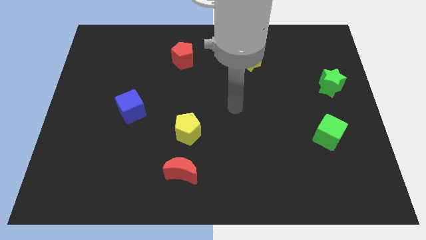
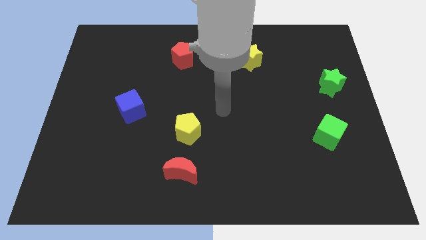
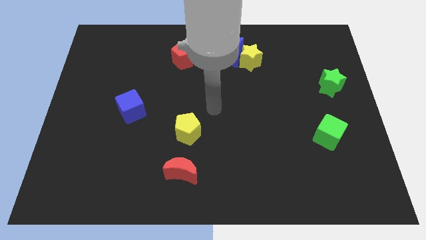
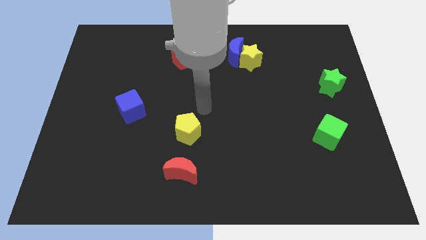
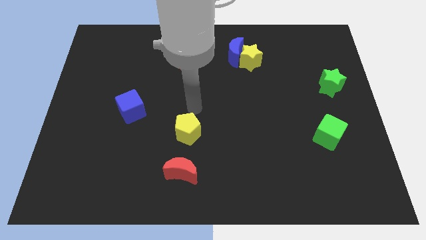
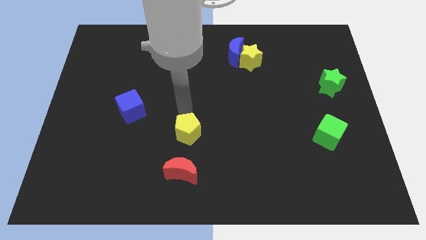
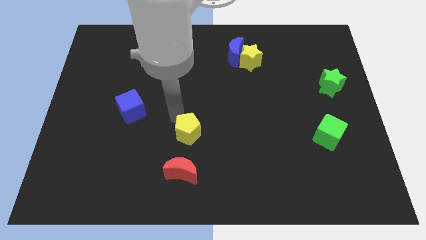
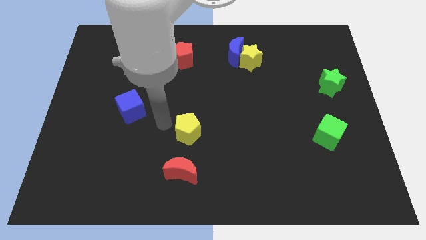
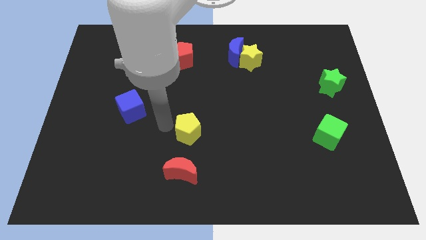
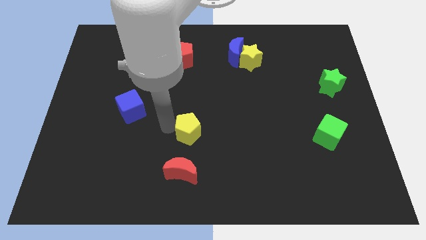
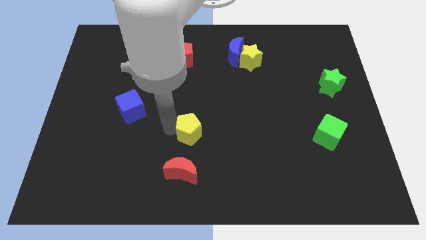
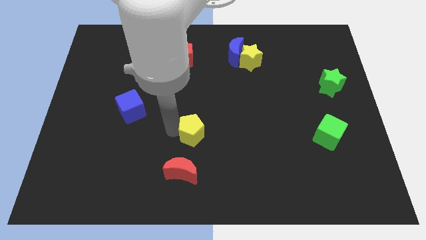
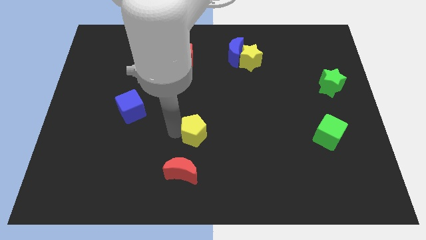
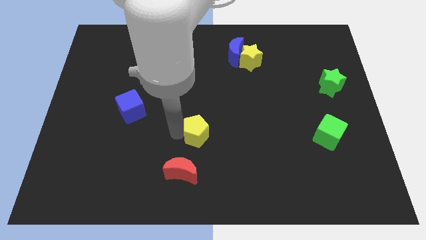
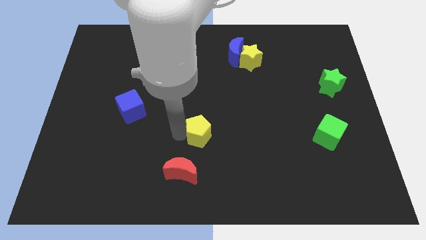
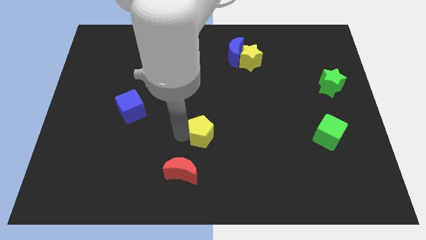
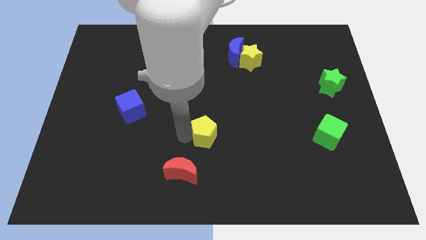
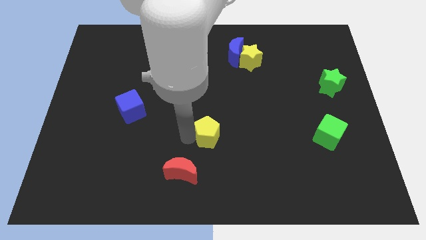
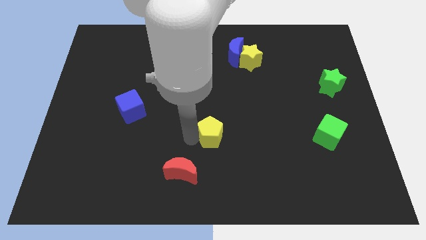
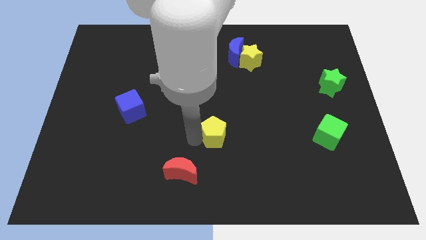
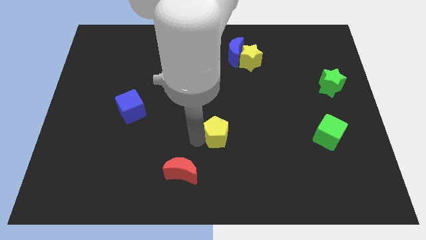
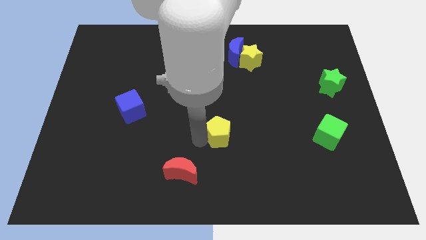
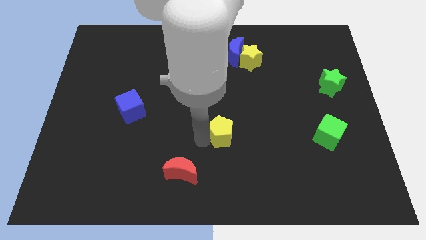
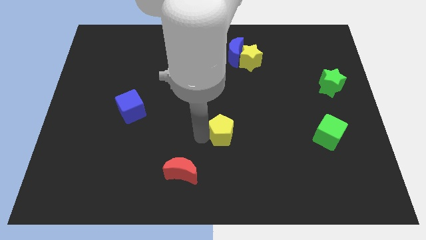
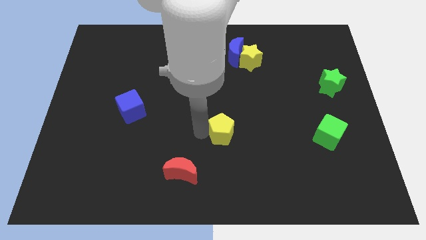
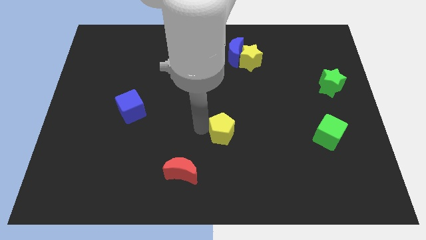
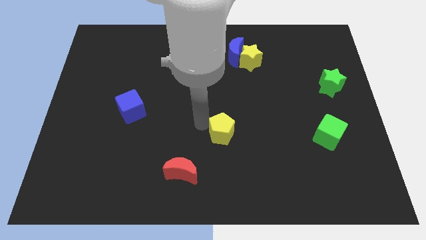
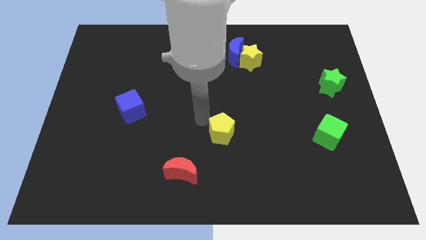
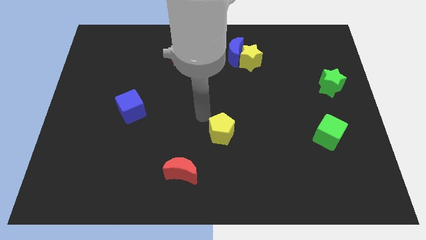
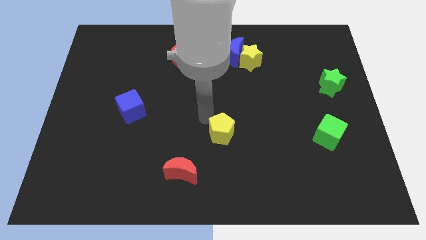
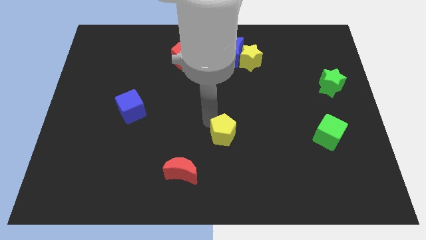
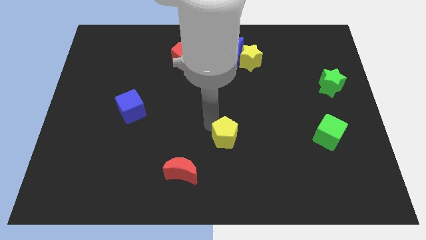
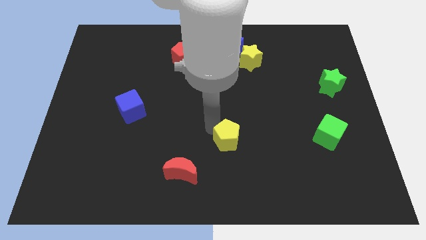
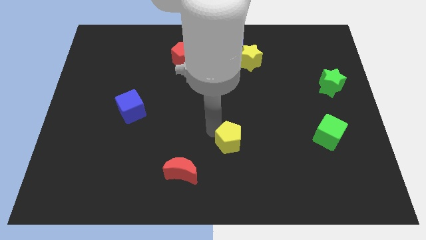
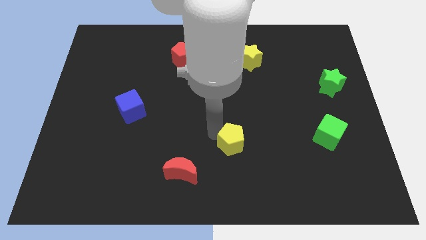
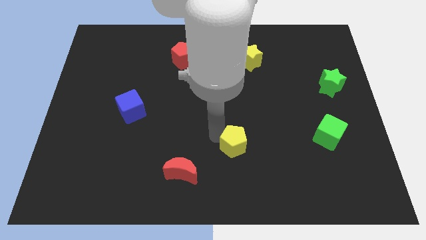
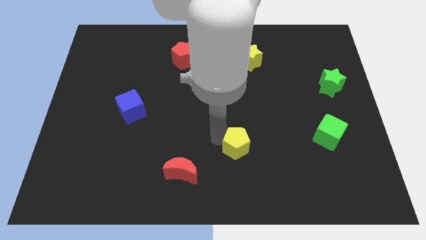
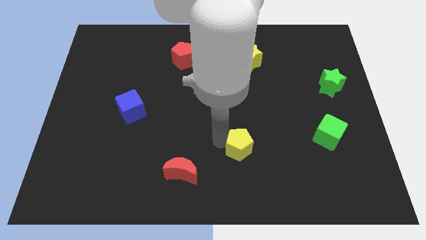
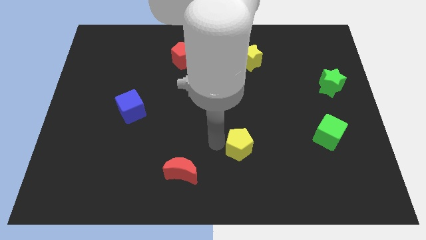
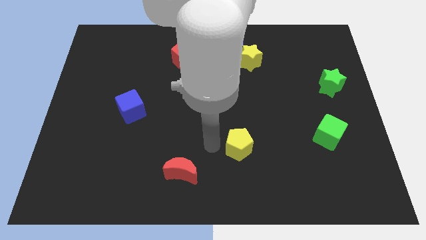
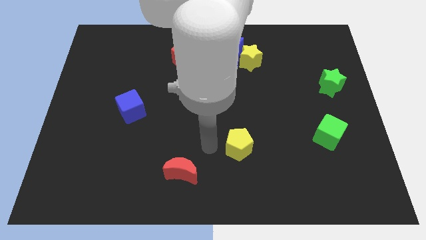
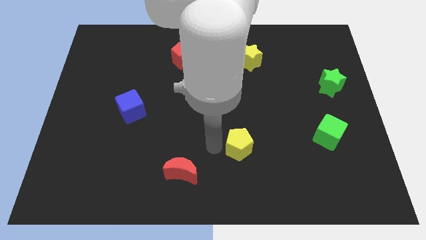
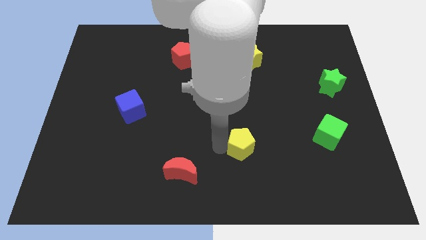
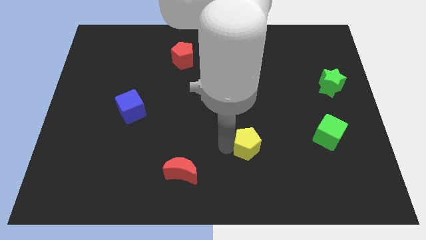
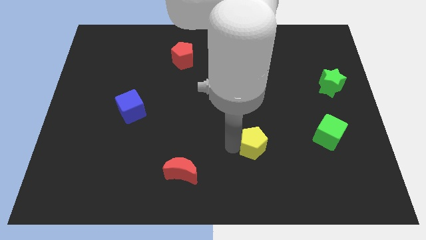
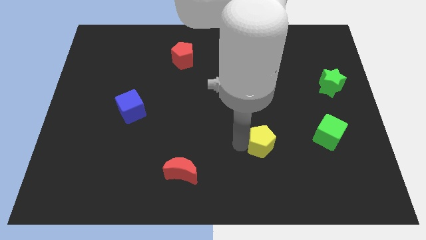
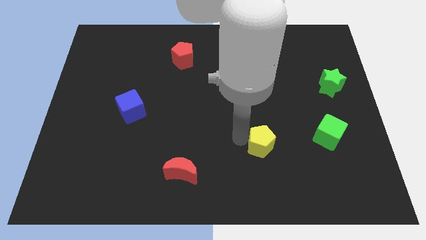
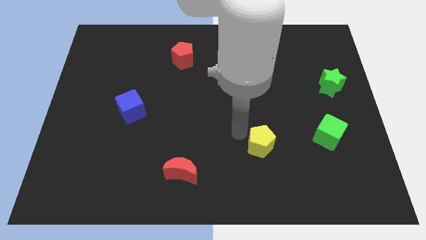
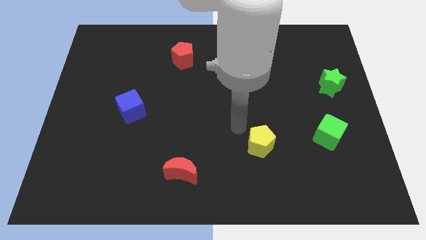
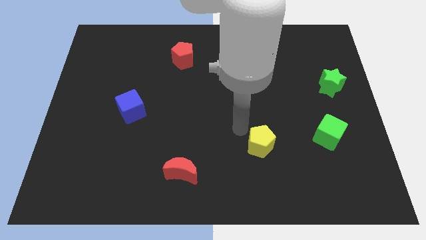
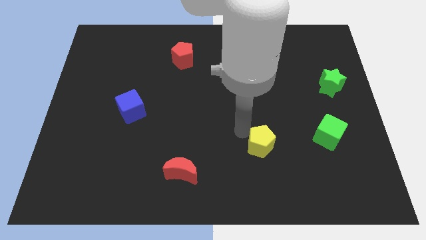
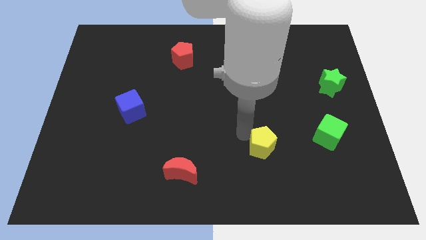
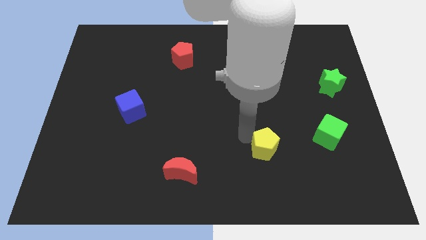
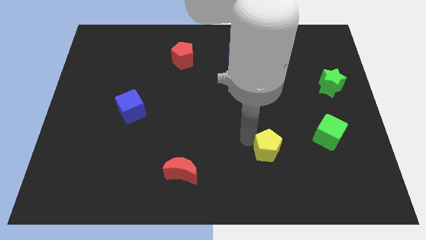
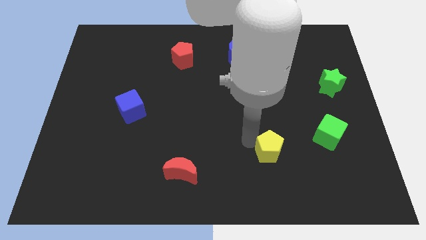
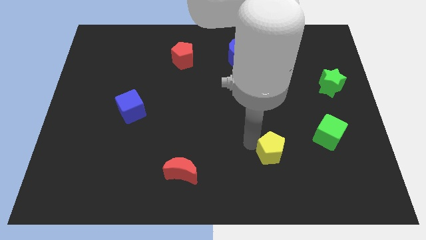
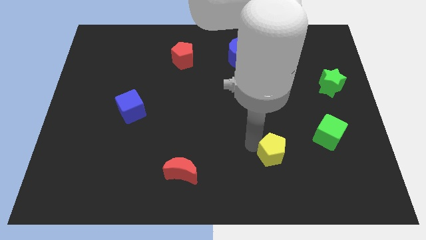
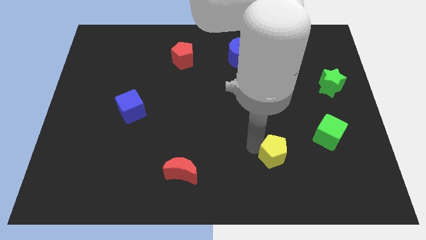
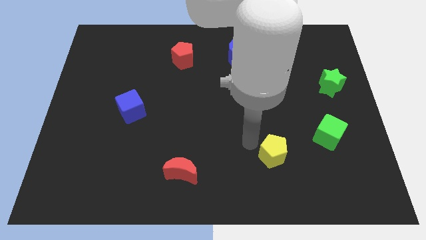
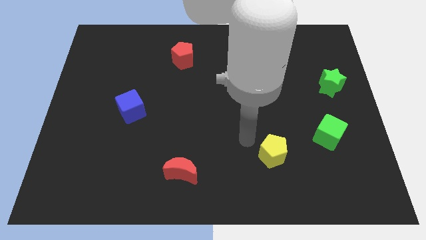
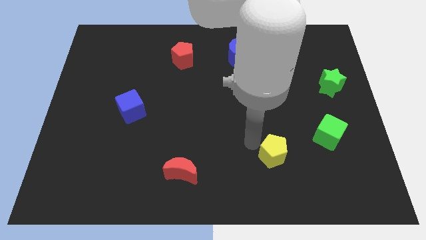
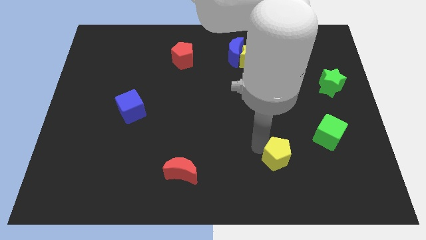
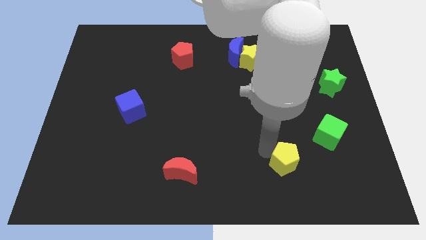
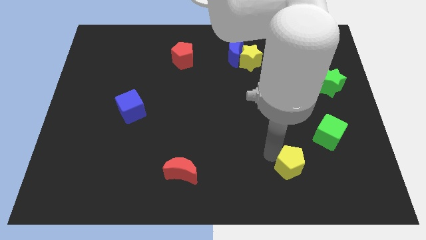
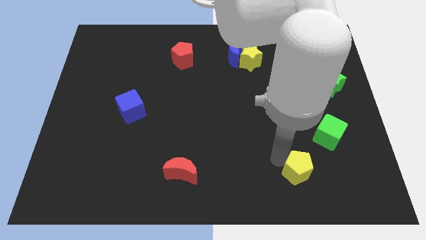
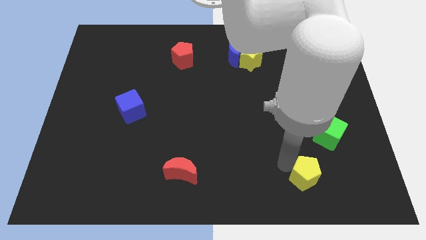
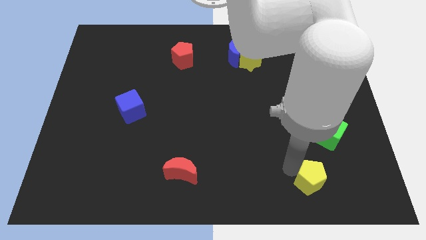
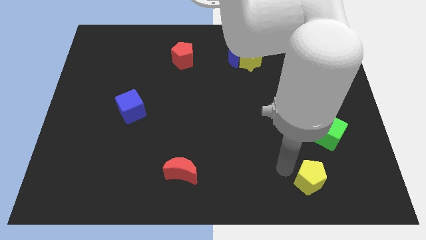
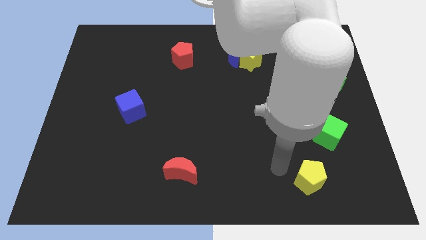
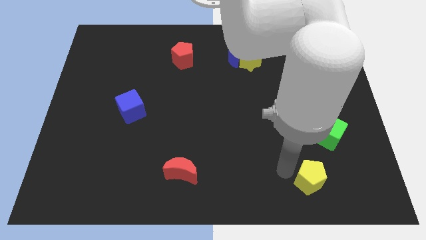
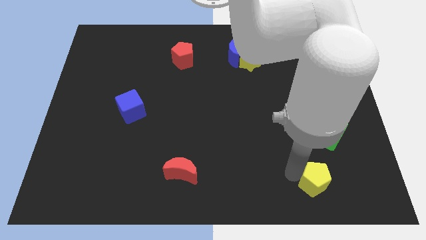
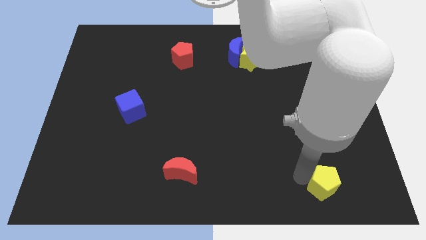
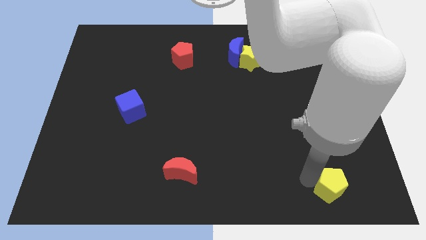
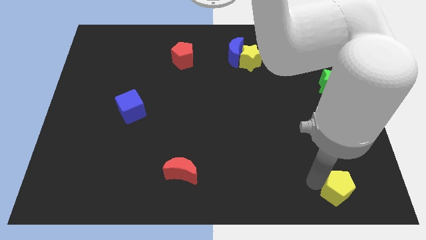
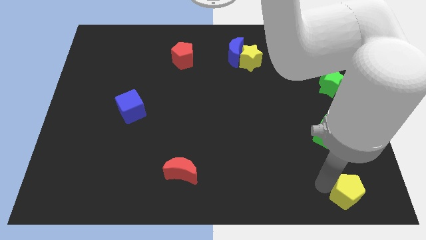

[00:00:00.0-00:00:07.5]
slide the yellow pentagon to the bottom right
